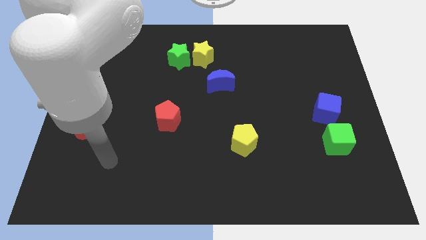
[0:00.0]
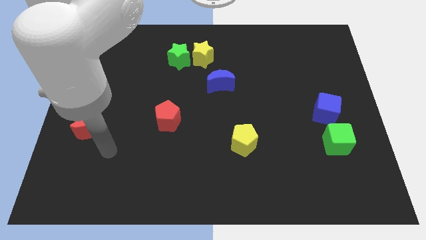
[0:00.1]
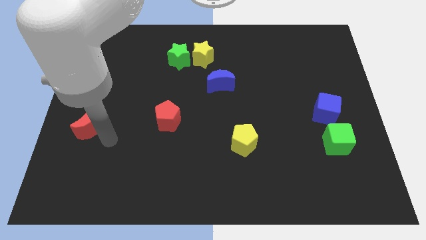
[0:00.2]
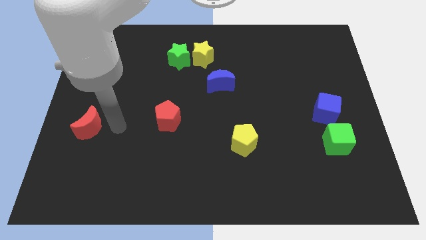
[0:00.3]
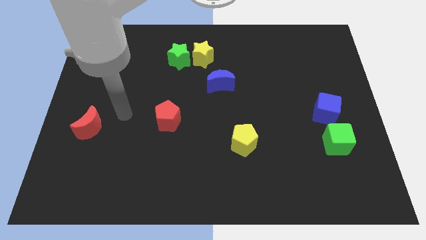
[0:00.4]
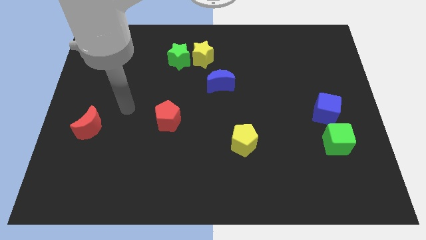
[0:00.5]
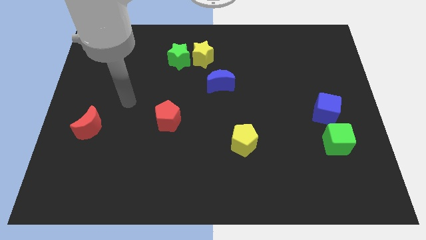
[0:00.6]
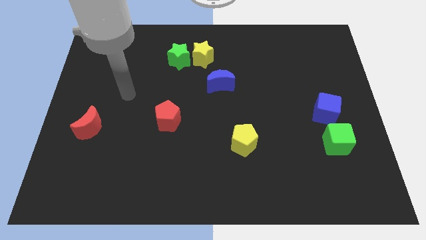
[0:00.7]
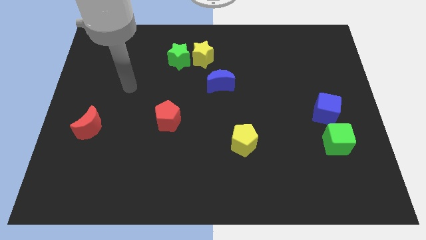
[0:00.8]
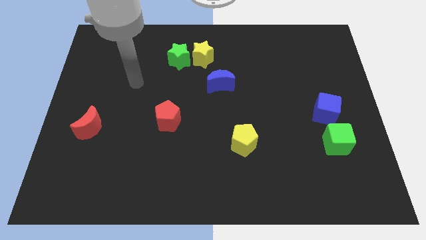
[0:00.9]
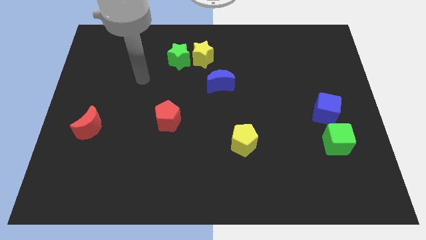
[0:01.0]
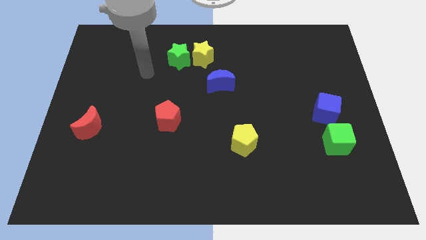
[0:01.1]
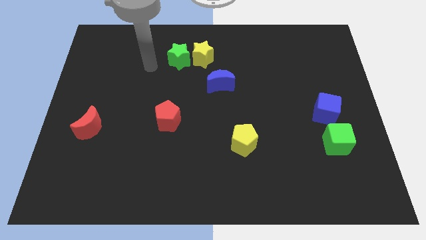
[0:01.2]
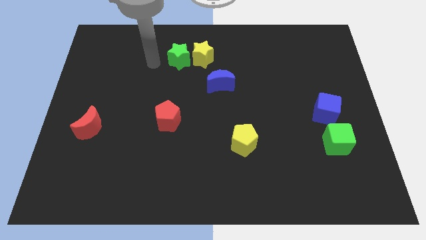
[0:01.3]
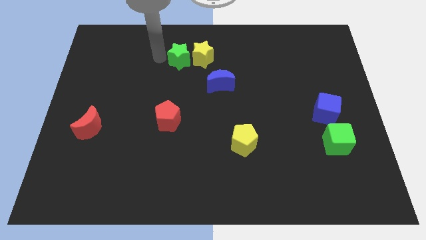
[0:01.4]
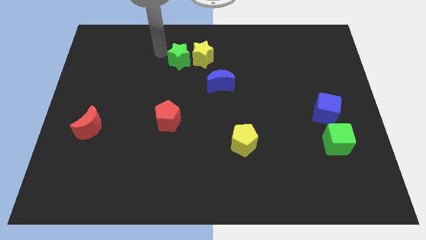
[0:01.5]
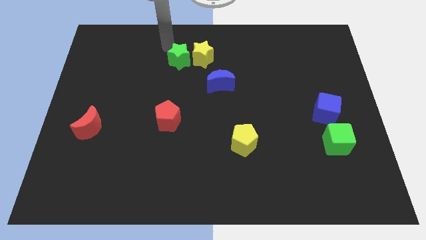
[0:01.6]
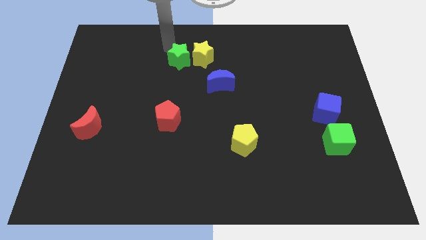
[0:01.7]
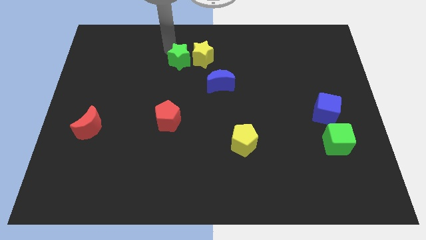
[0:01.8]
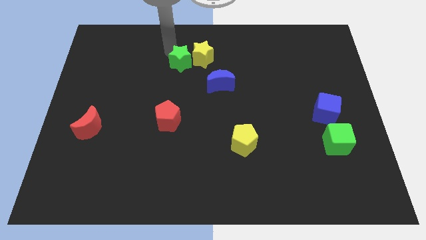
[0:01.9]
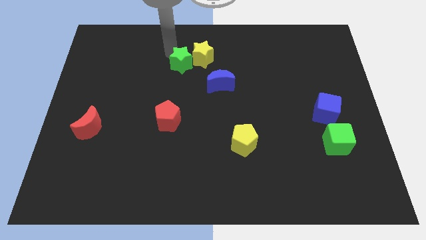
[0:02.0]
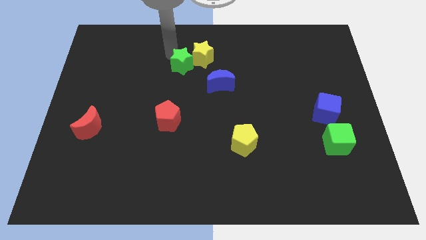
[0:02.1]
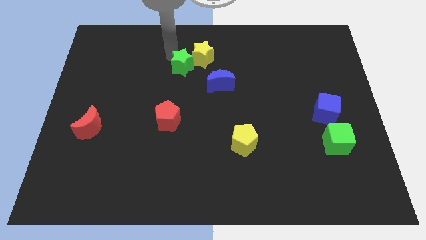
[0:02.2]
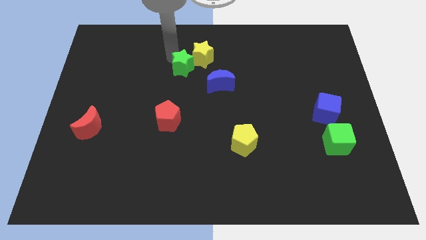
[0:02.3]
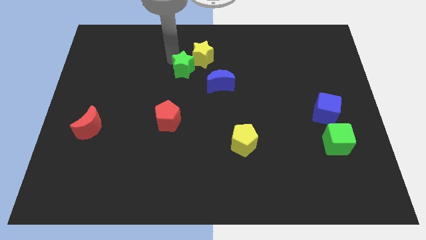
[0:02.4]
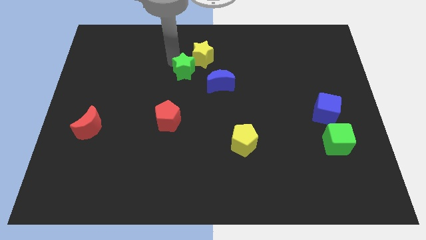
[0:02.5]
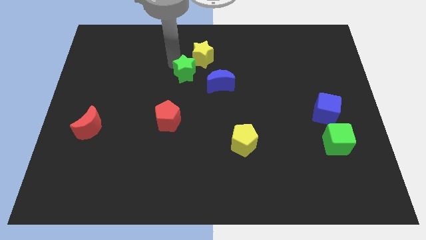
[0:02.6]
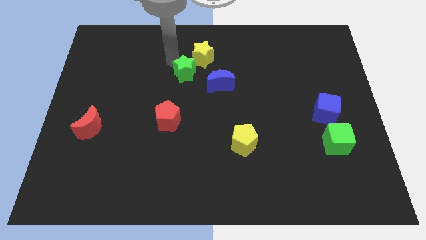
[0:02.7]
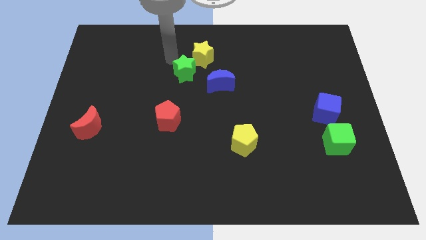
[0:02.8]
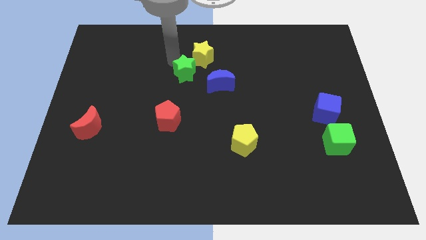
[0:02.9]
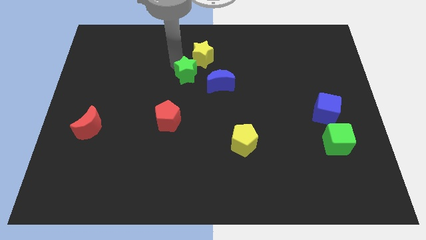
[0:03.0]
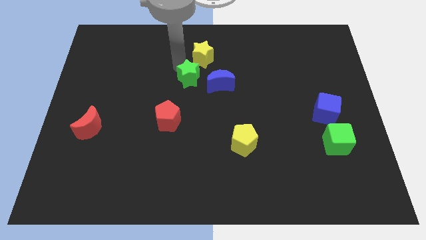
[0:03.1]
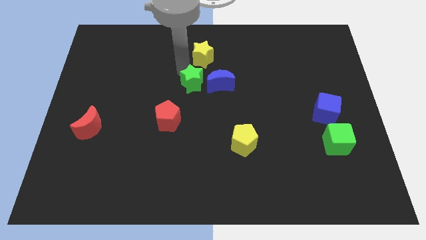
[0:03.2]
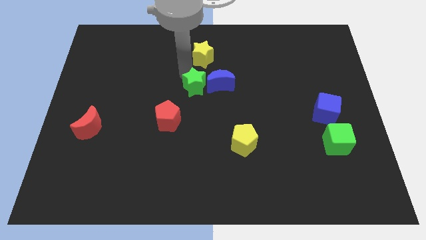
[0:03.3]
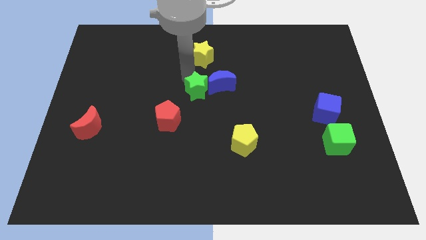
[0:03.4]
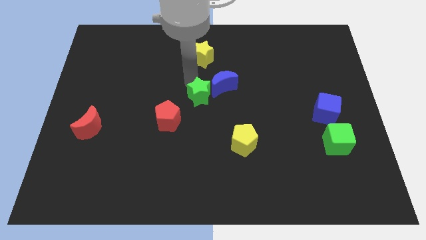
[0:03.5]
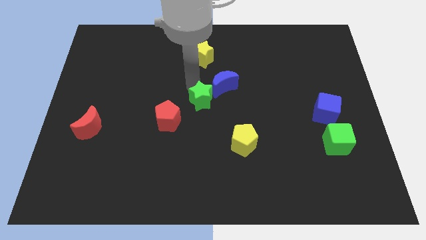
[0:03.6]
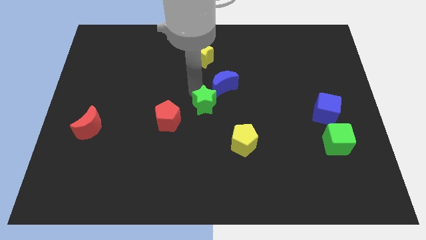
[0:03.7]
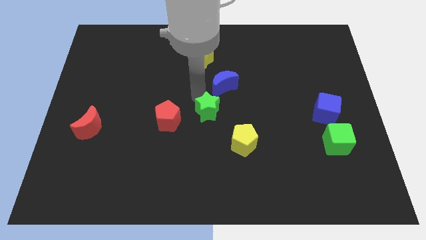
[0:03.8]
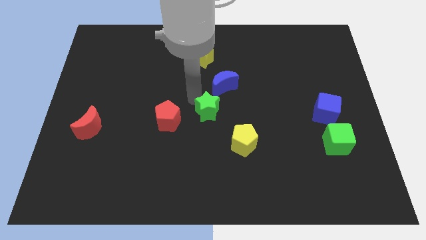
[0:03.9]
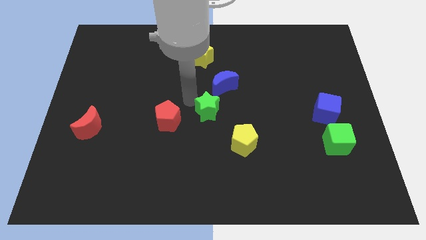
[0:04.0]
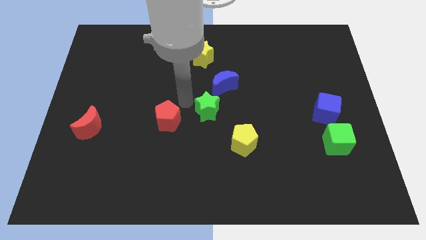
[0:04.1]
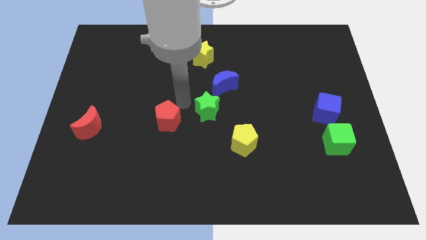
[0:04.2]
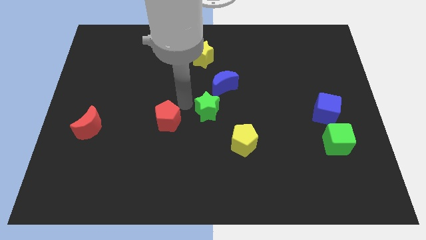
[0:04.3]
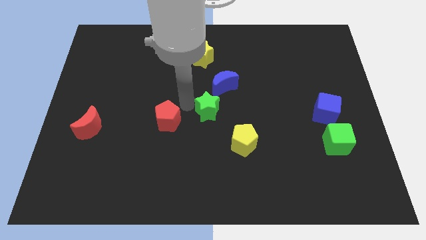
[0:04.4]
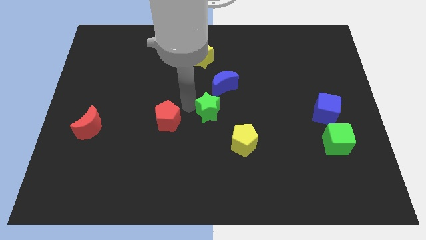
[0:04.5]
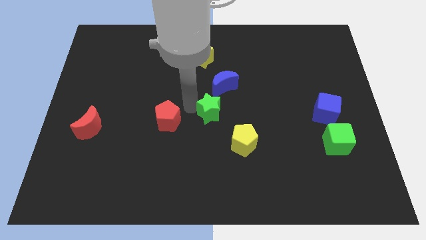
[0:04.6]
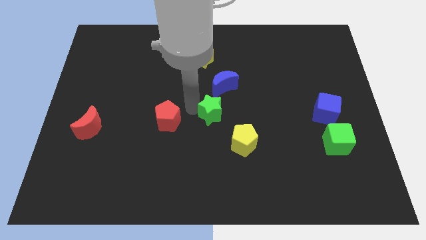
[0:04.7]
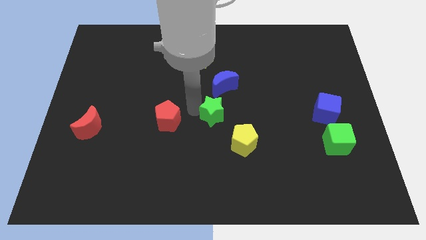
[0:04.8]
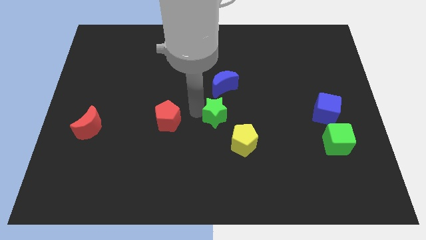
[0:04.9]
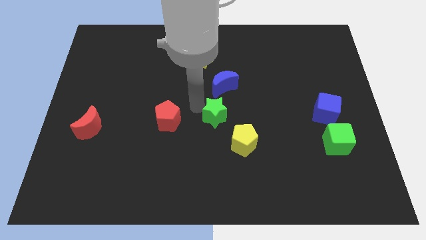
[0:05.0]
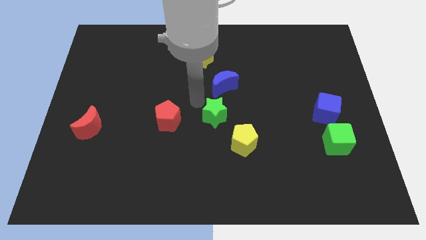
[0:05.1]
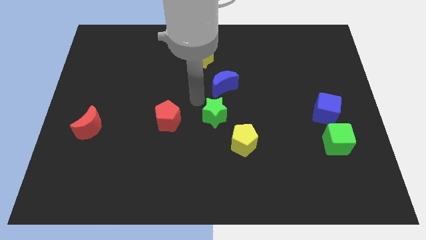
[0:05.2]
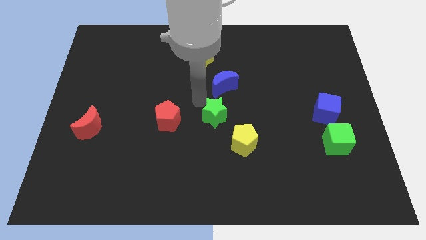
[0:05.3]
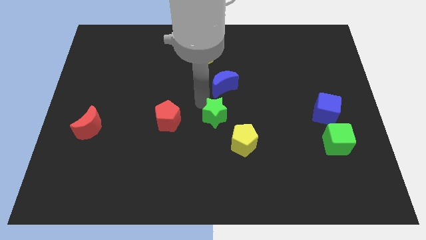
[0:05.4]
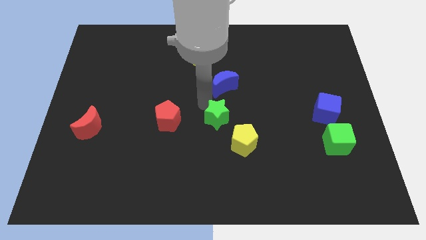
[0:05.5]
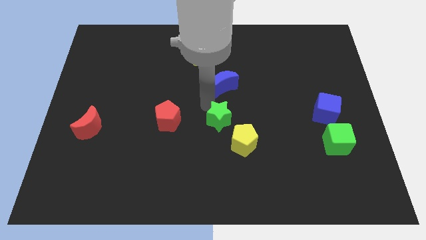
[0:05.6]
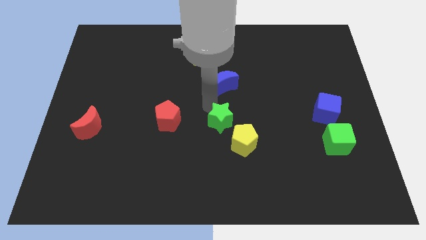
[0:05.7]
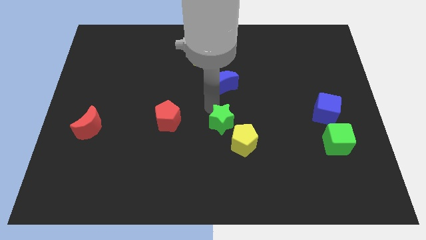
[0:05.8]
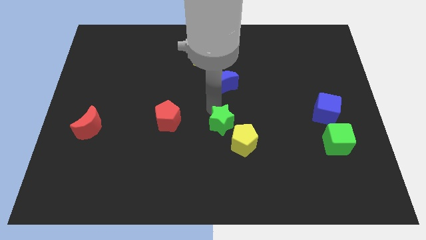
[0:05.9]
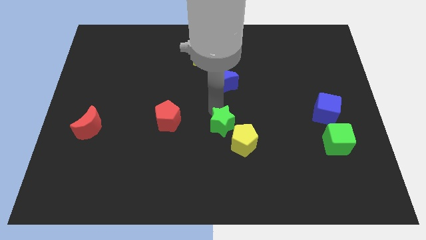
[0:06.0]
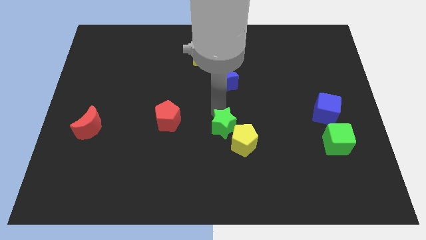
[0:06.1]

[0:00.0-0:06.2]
put the green star next to the yellow pentagon

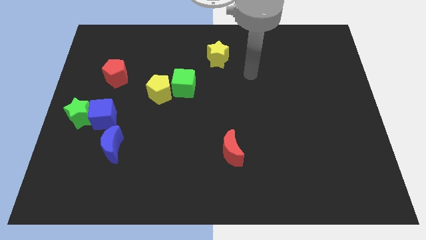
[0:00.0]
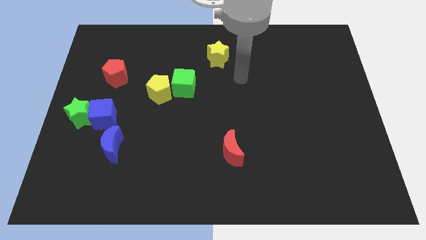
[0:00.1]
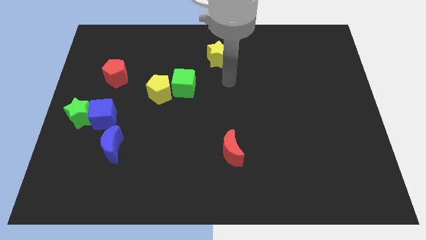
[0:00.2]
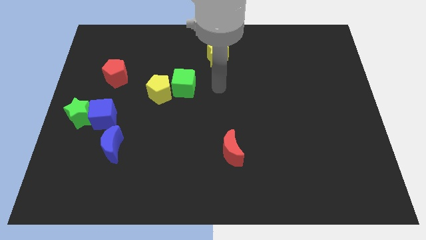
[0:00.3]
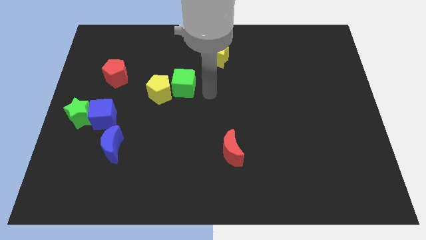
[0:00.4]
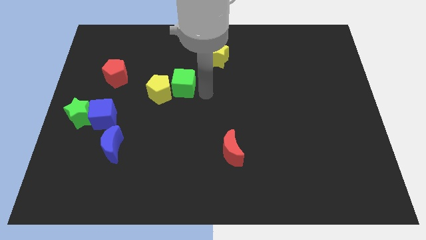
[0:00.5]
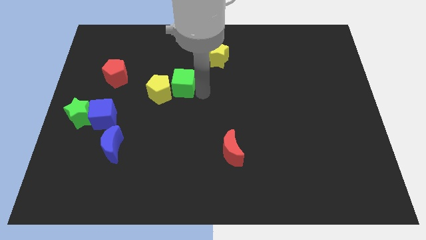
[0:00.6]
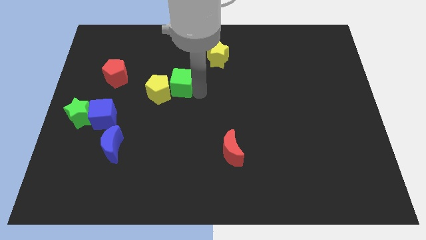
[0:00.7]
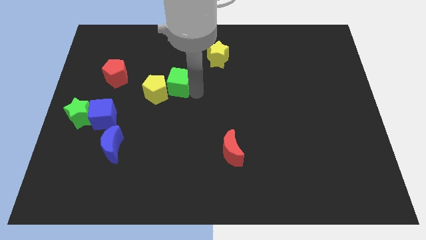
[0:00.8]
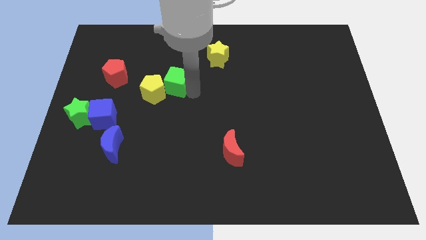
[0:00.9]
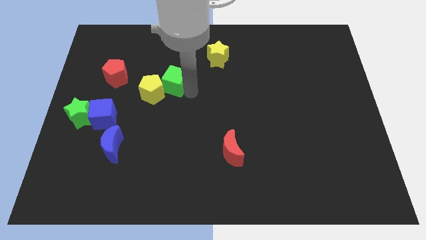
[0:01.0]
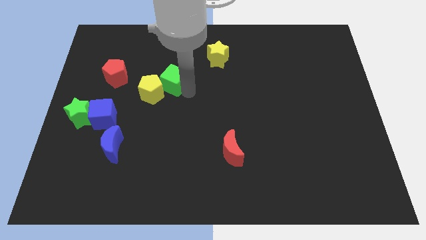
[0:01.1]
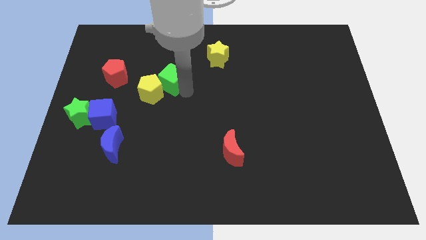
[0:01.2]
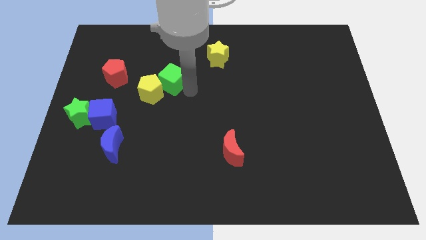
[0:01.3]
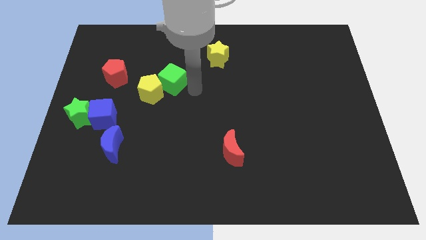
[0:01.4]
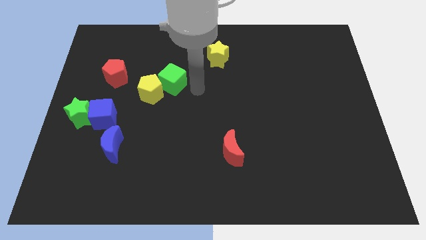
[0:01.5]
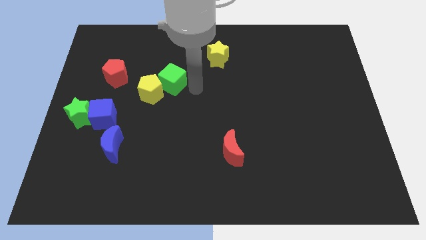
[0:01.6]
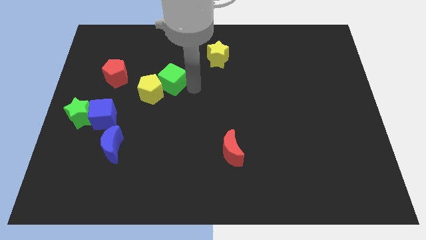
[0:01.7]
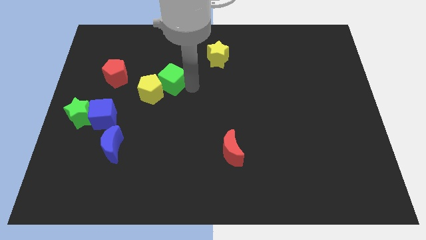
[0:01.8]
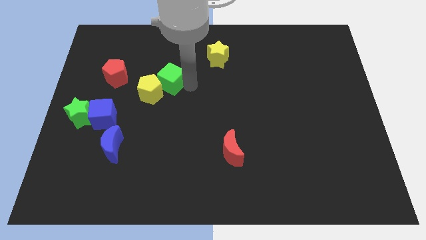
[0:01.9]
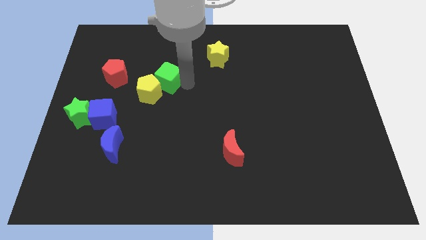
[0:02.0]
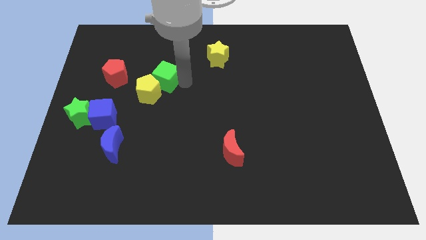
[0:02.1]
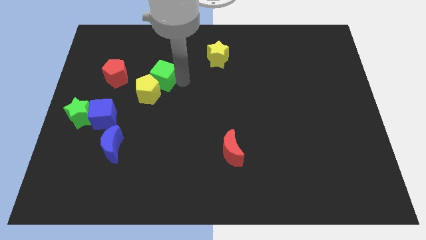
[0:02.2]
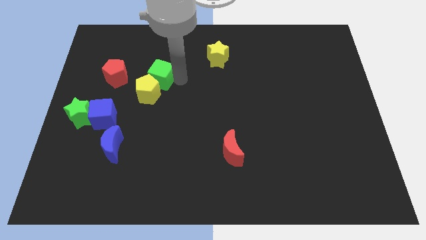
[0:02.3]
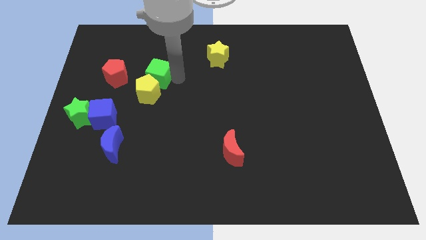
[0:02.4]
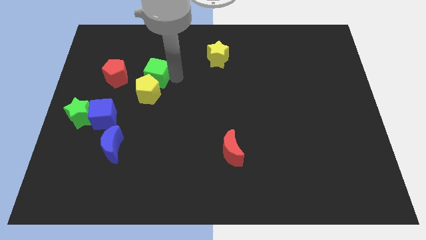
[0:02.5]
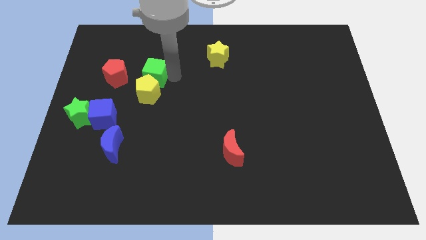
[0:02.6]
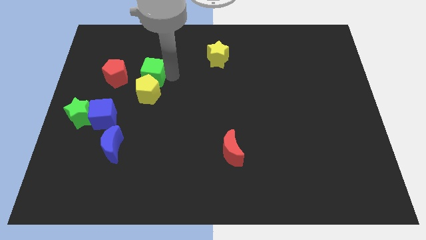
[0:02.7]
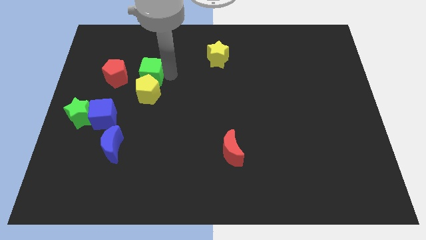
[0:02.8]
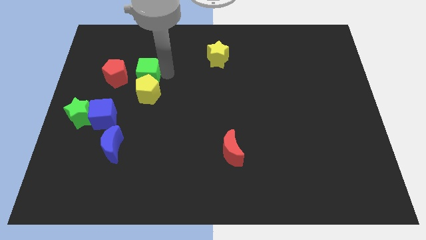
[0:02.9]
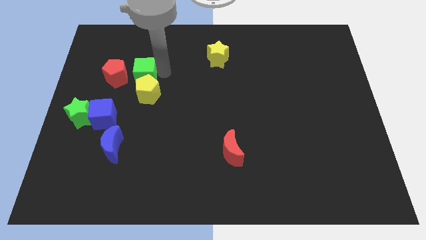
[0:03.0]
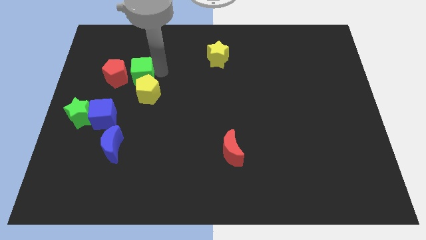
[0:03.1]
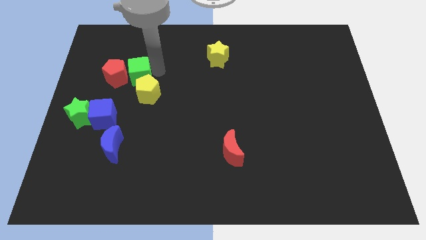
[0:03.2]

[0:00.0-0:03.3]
put the green cube to the red pentagon
